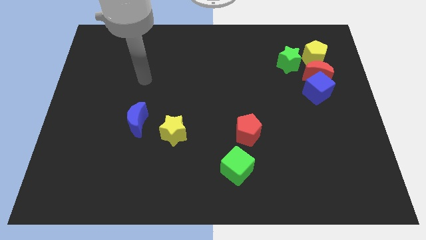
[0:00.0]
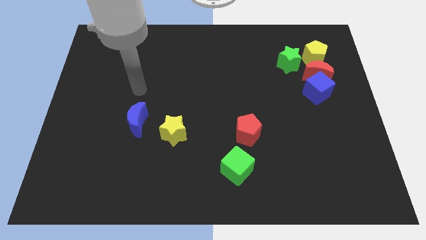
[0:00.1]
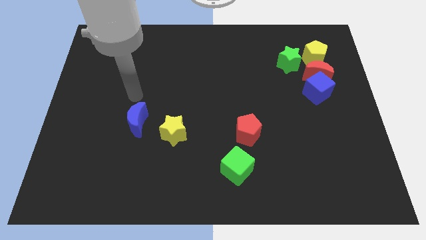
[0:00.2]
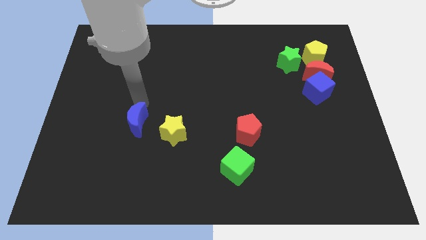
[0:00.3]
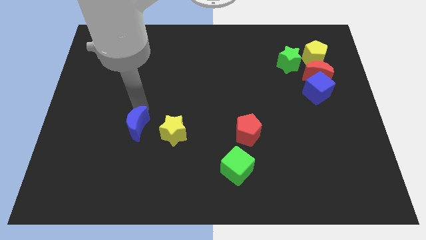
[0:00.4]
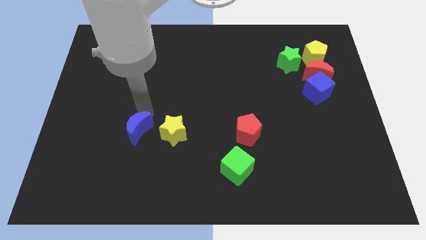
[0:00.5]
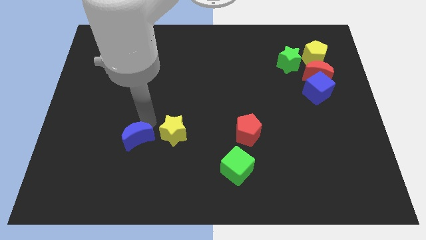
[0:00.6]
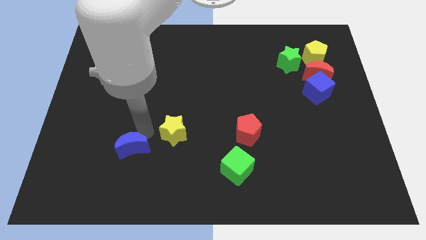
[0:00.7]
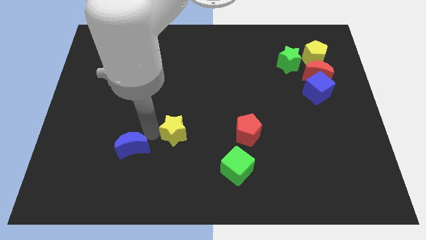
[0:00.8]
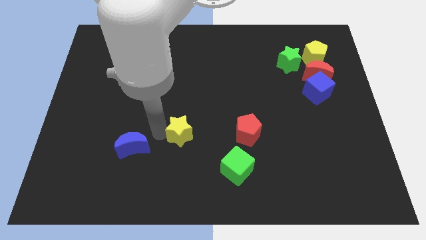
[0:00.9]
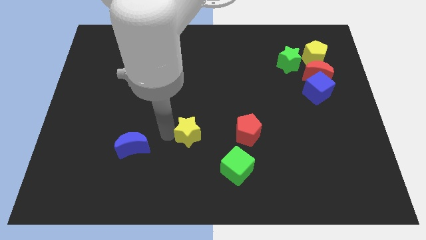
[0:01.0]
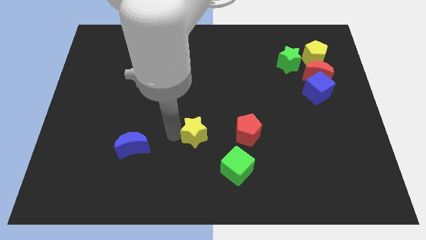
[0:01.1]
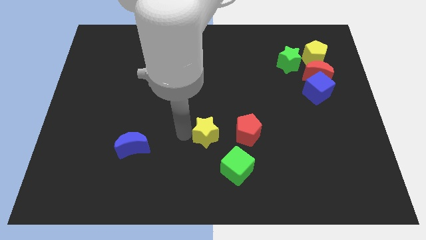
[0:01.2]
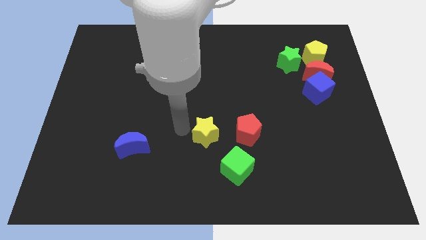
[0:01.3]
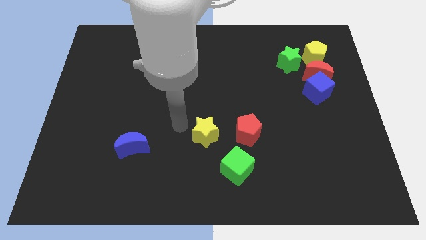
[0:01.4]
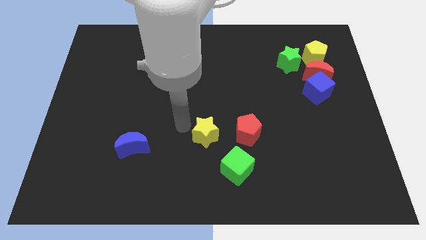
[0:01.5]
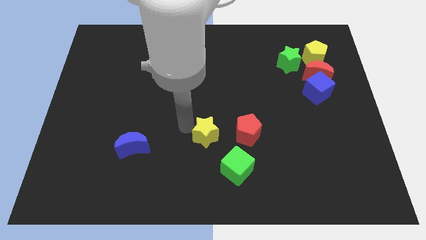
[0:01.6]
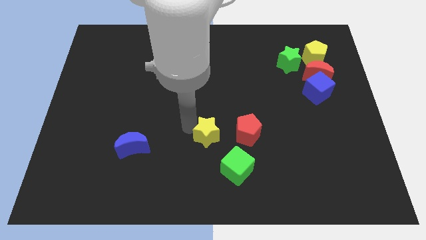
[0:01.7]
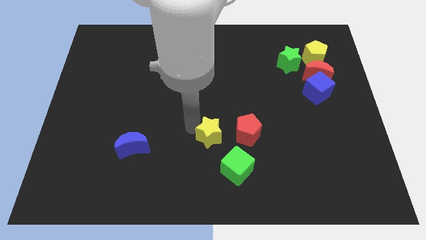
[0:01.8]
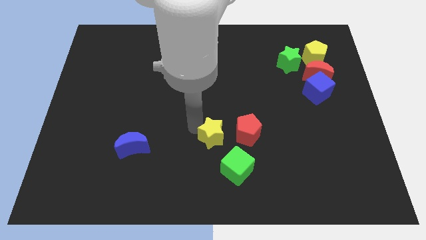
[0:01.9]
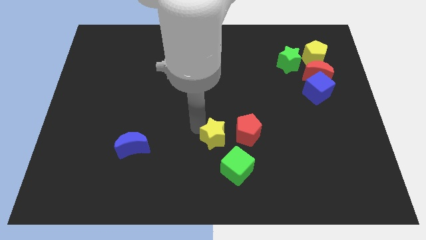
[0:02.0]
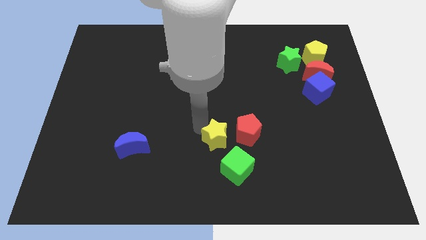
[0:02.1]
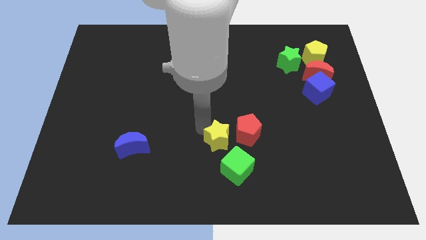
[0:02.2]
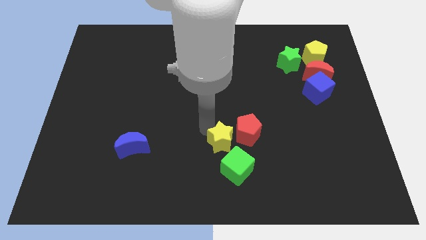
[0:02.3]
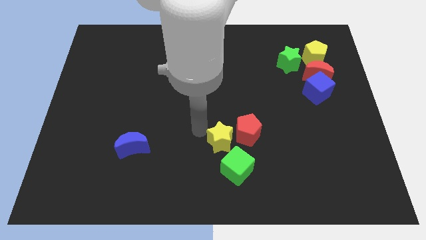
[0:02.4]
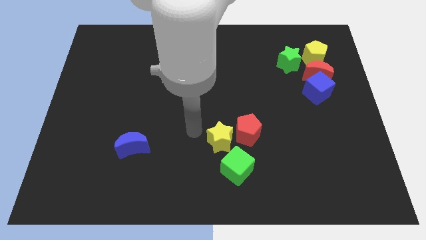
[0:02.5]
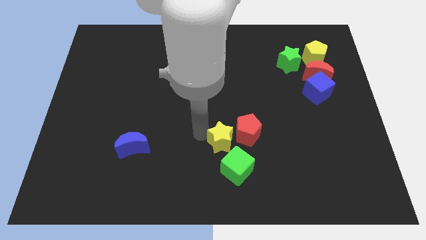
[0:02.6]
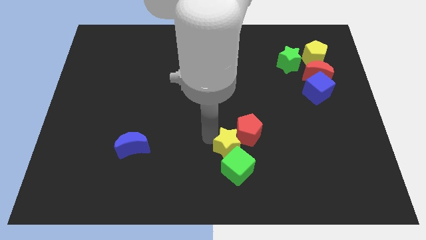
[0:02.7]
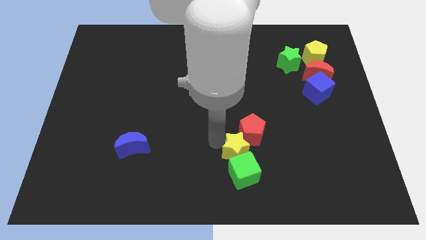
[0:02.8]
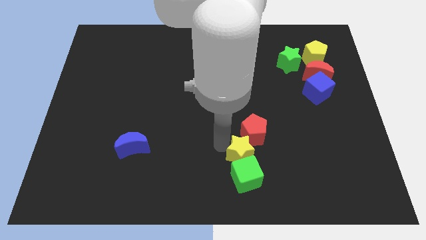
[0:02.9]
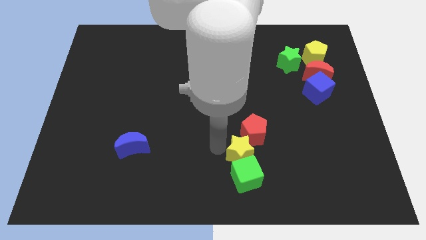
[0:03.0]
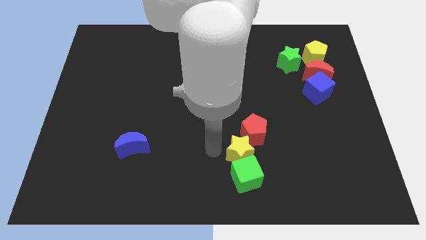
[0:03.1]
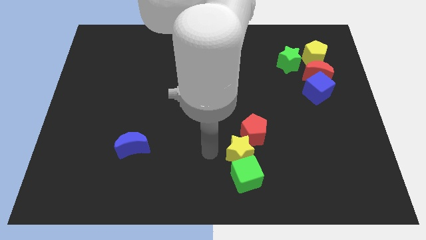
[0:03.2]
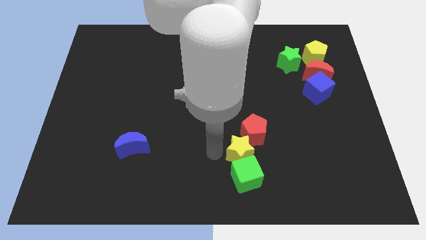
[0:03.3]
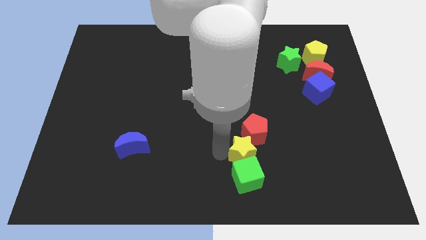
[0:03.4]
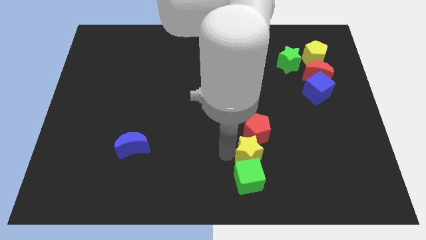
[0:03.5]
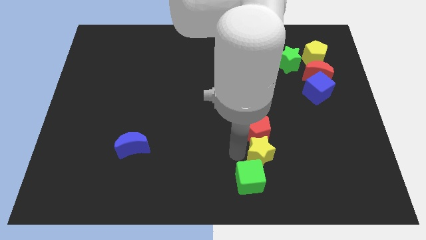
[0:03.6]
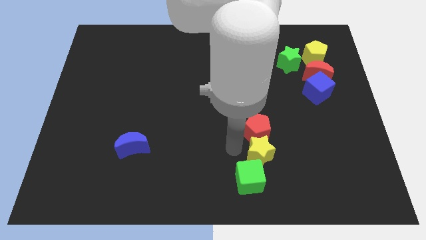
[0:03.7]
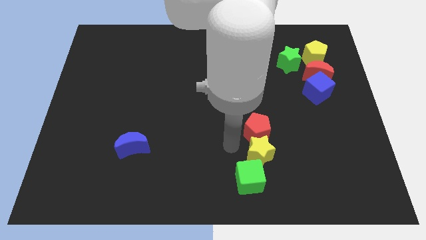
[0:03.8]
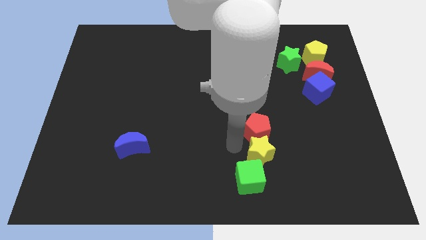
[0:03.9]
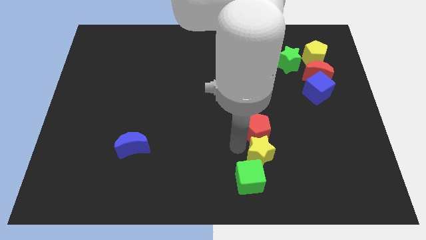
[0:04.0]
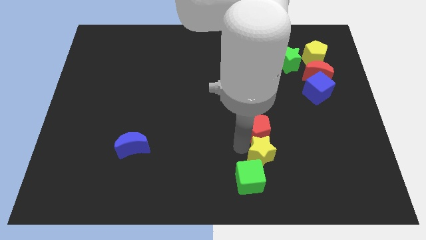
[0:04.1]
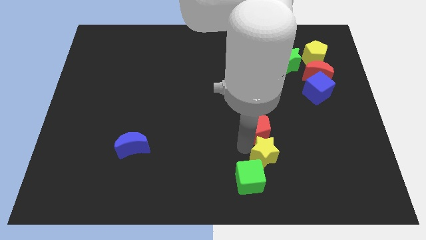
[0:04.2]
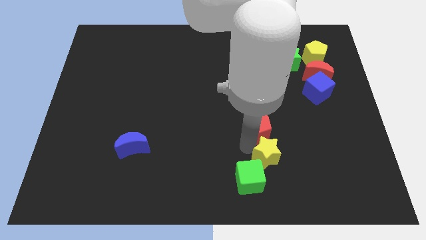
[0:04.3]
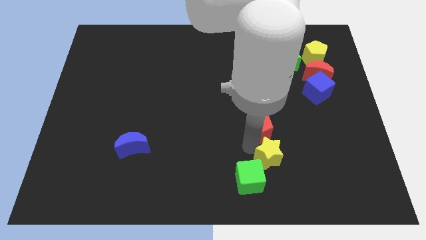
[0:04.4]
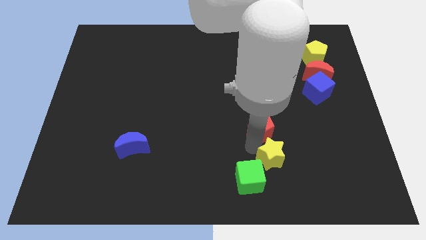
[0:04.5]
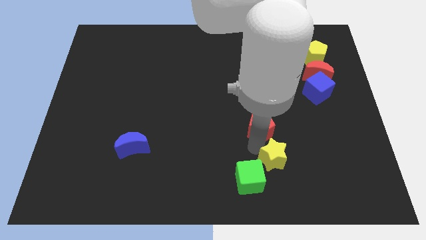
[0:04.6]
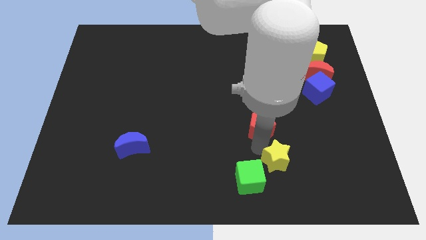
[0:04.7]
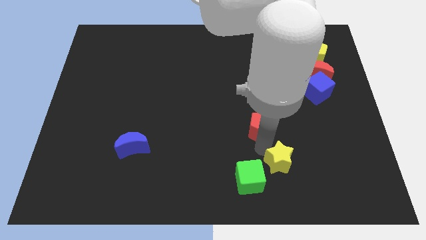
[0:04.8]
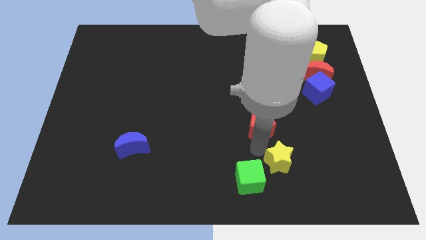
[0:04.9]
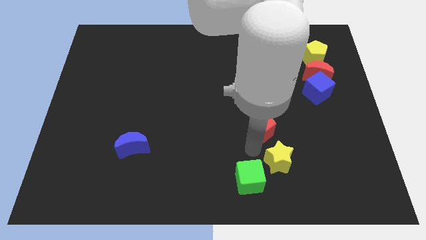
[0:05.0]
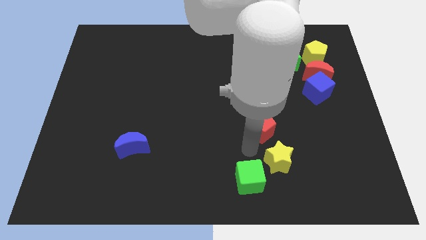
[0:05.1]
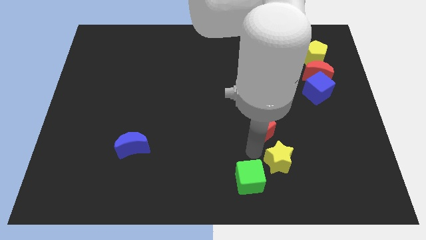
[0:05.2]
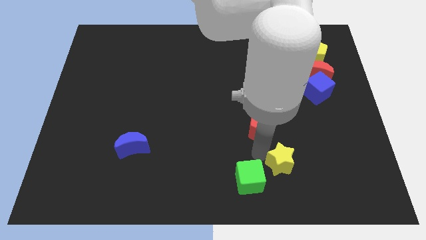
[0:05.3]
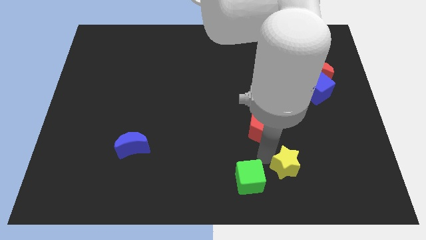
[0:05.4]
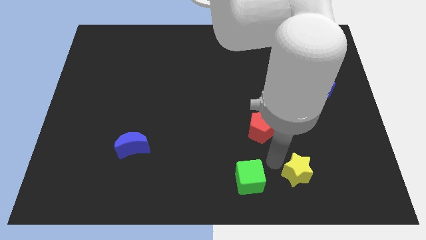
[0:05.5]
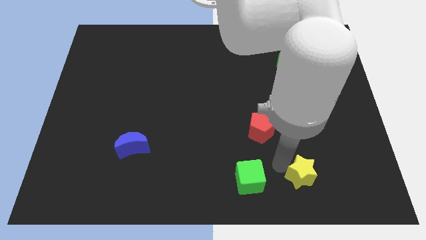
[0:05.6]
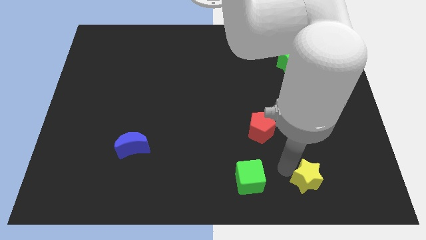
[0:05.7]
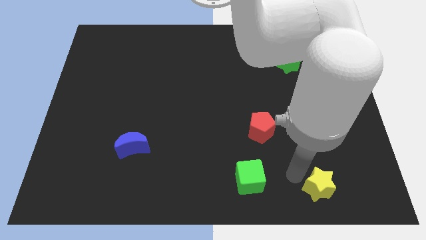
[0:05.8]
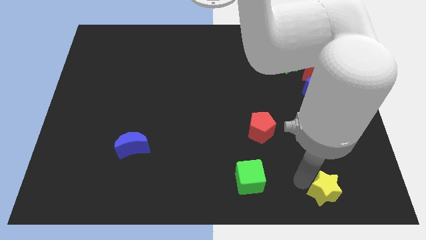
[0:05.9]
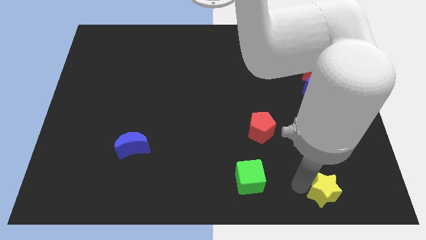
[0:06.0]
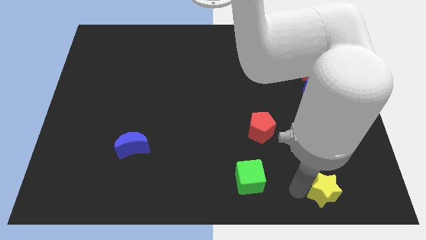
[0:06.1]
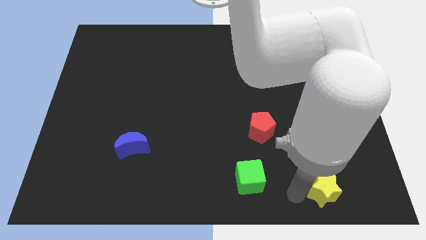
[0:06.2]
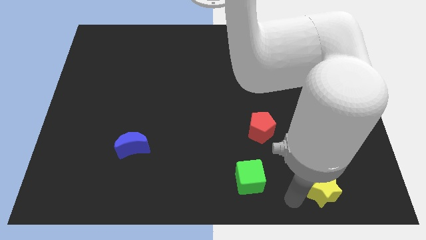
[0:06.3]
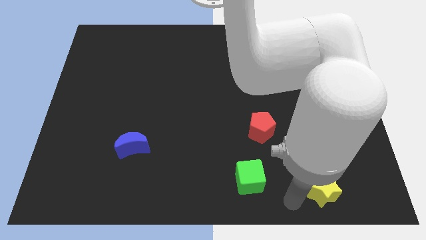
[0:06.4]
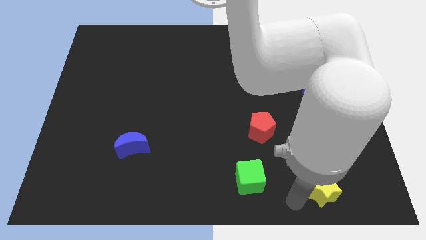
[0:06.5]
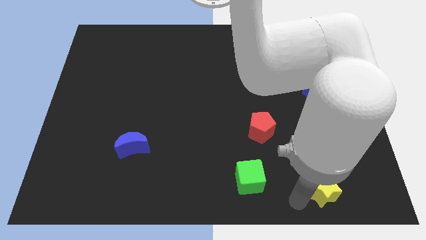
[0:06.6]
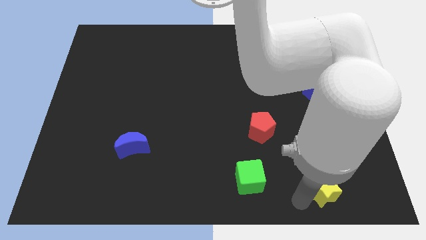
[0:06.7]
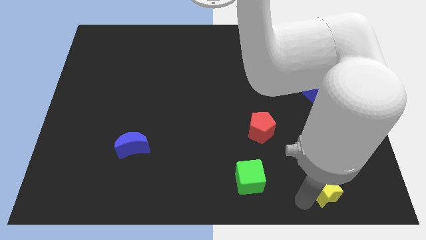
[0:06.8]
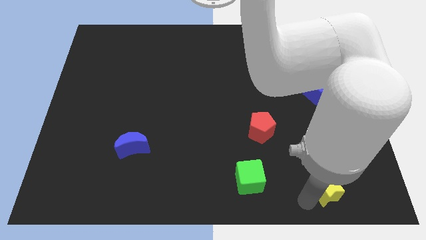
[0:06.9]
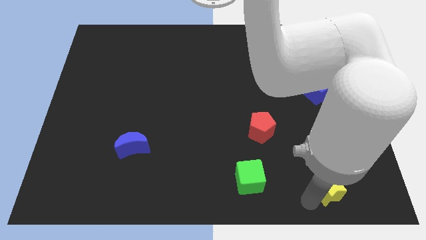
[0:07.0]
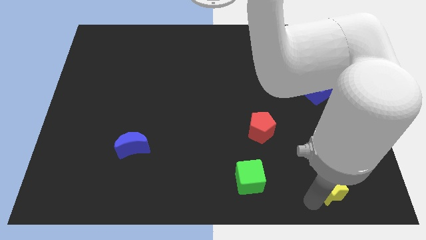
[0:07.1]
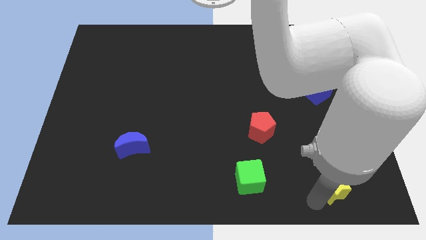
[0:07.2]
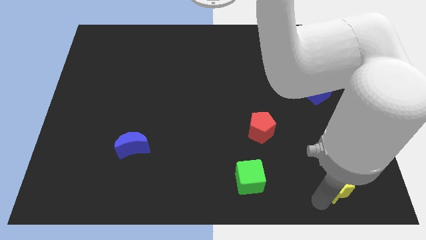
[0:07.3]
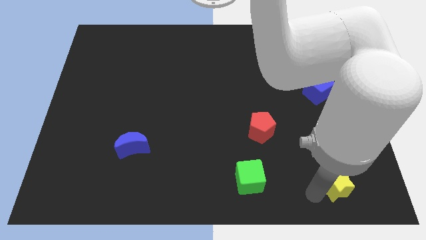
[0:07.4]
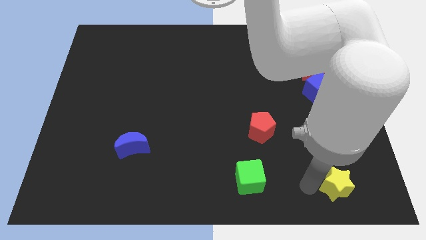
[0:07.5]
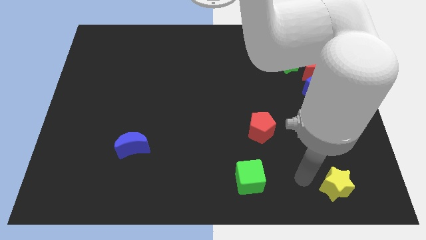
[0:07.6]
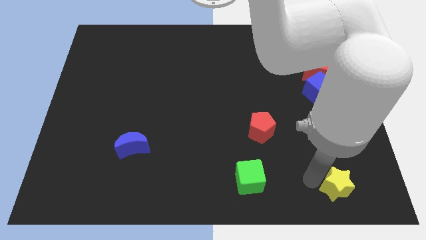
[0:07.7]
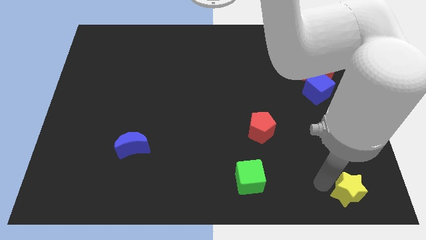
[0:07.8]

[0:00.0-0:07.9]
move the yellow star to the bottom right of the board

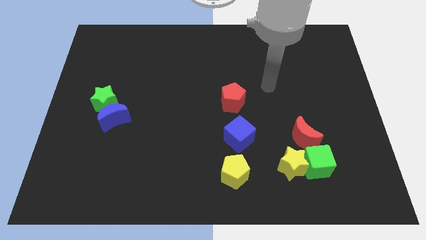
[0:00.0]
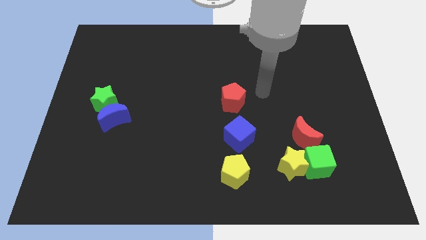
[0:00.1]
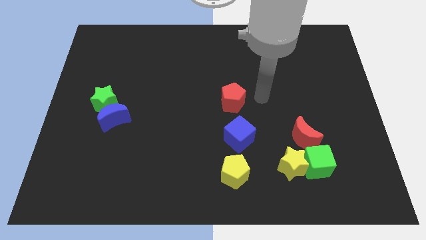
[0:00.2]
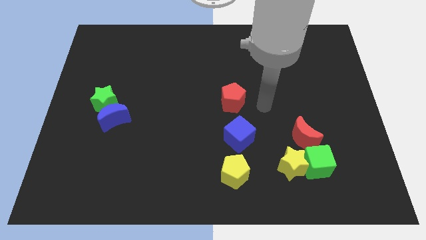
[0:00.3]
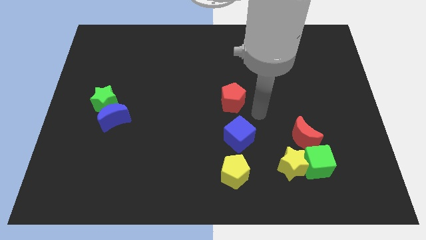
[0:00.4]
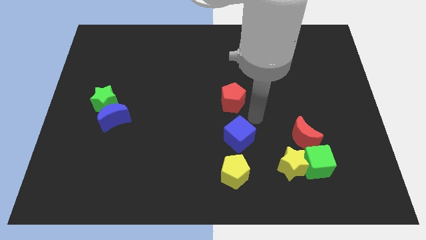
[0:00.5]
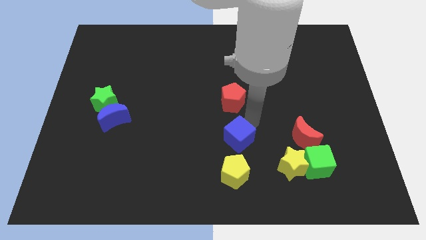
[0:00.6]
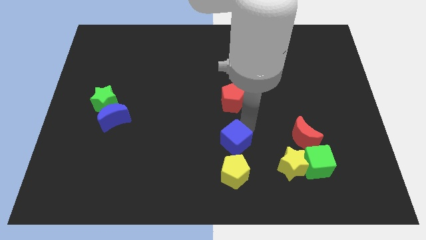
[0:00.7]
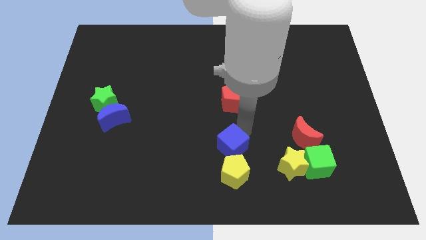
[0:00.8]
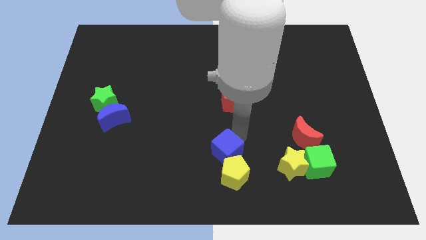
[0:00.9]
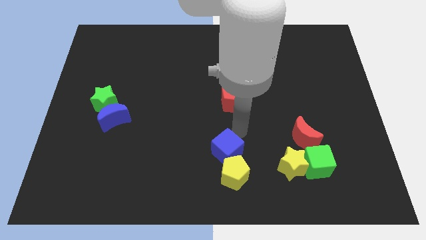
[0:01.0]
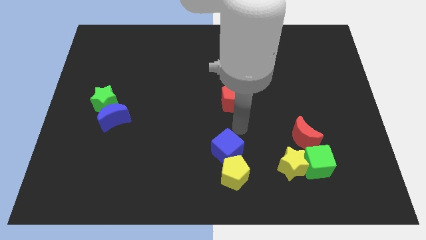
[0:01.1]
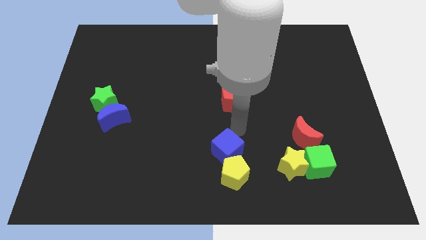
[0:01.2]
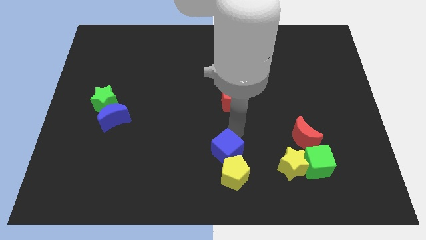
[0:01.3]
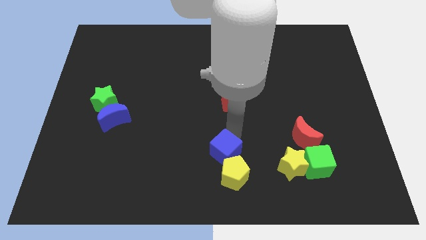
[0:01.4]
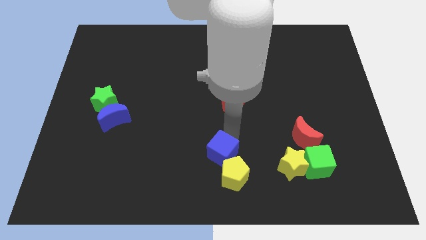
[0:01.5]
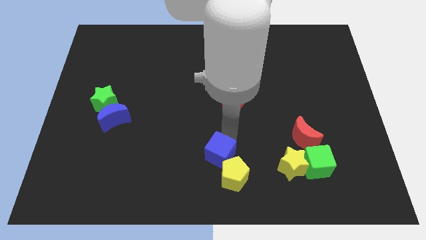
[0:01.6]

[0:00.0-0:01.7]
move the blue cube to the bottom
